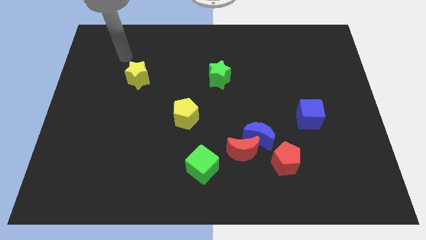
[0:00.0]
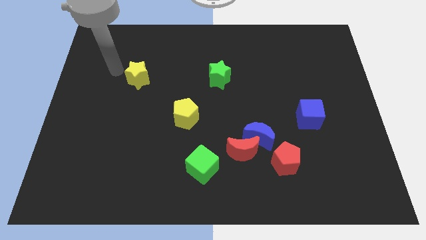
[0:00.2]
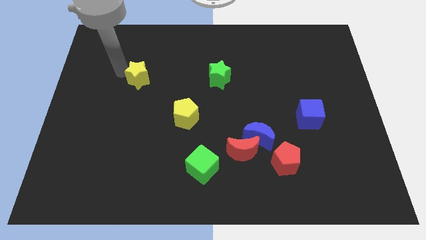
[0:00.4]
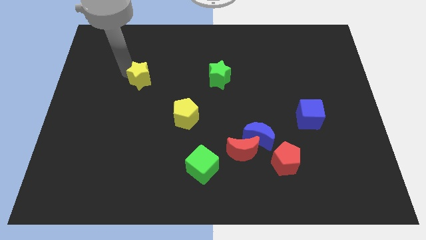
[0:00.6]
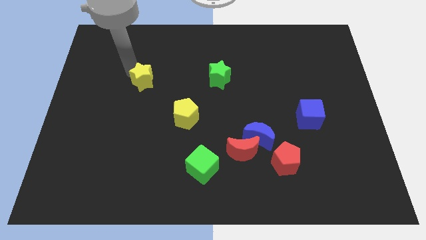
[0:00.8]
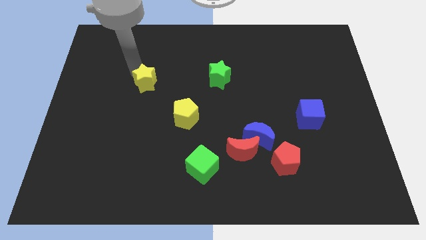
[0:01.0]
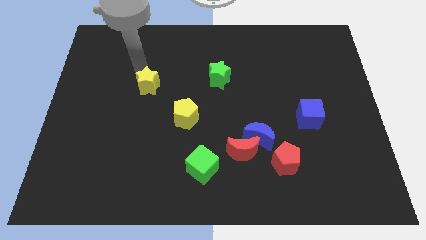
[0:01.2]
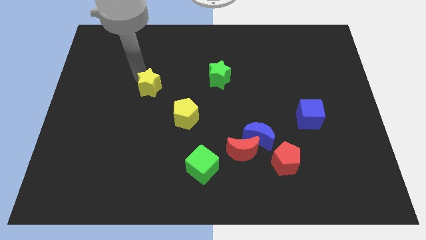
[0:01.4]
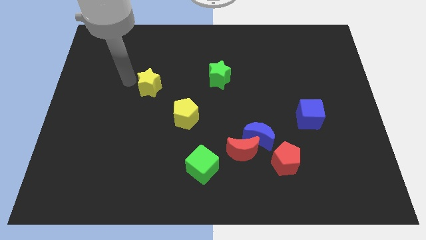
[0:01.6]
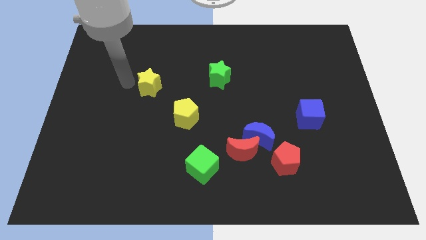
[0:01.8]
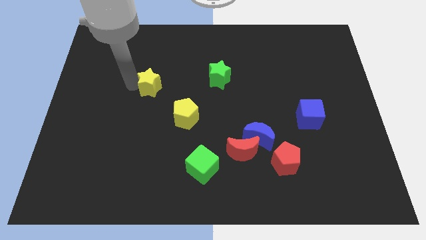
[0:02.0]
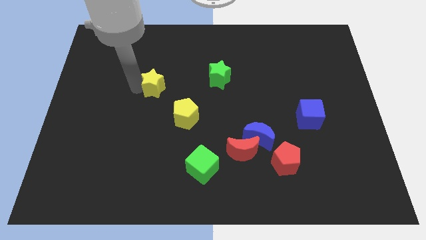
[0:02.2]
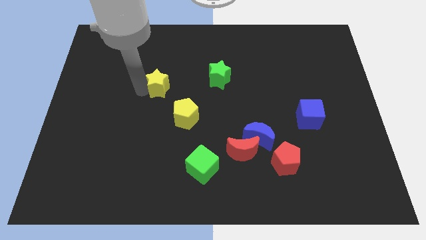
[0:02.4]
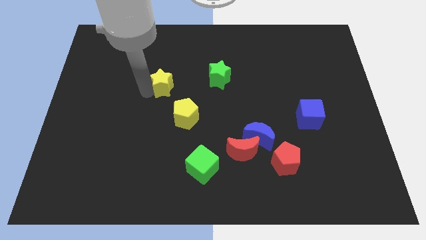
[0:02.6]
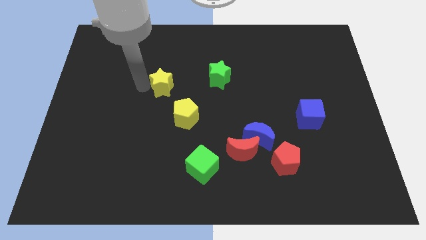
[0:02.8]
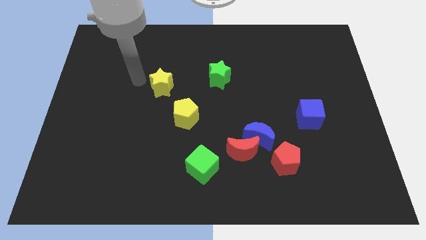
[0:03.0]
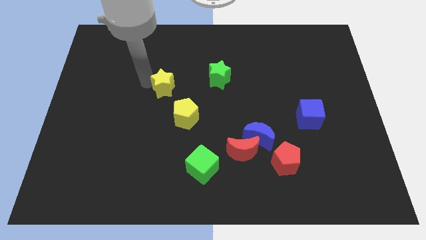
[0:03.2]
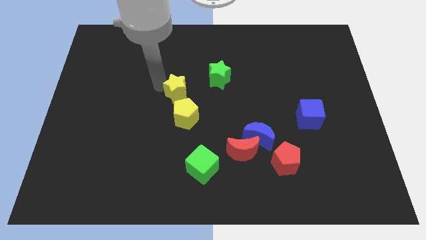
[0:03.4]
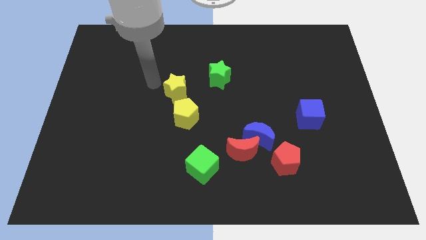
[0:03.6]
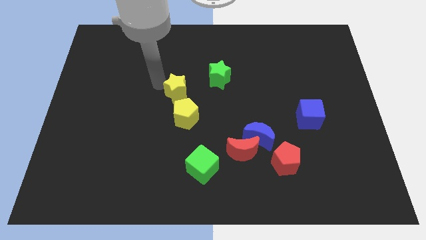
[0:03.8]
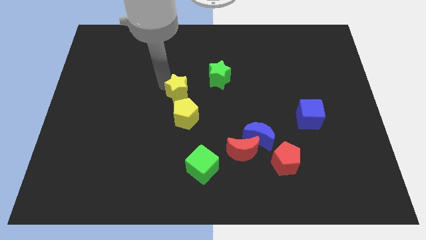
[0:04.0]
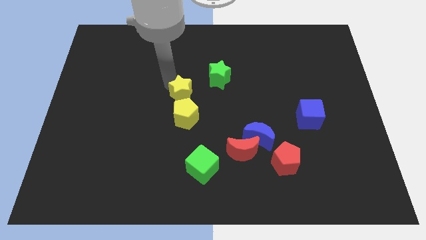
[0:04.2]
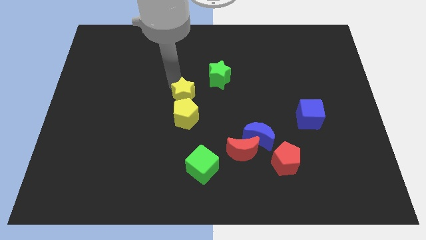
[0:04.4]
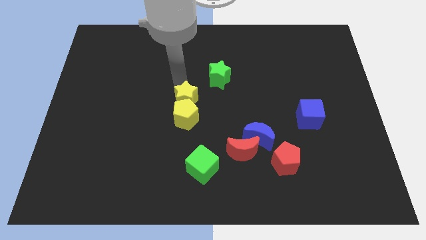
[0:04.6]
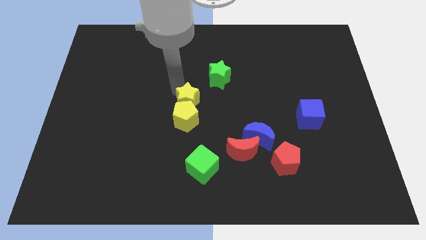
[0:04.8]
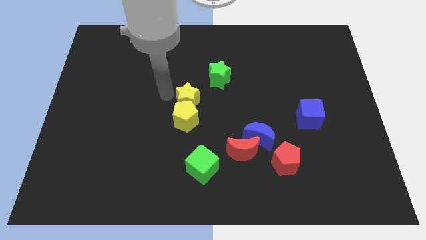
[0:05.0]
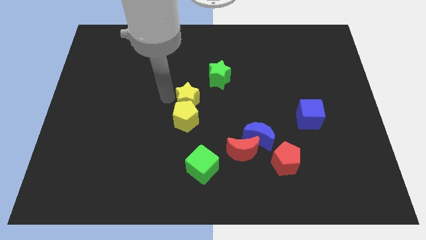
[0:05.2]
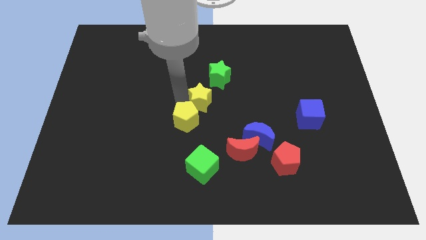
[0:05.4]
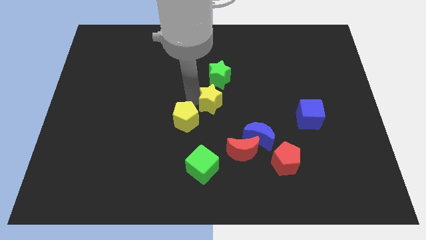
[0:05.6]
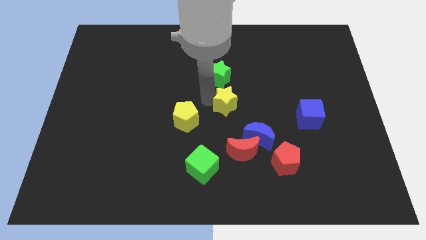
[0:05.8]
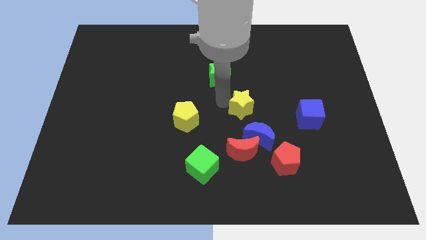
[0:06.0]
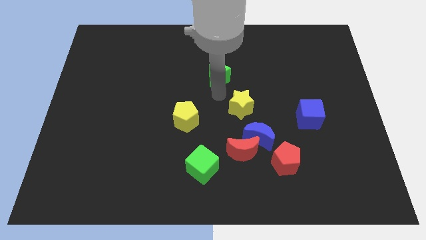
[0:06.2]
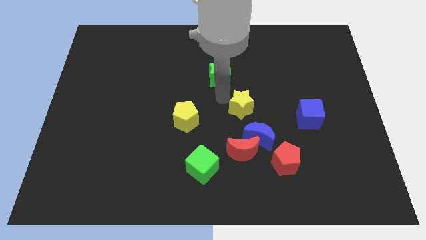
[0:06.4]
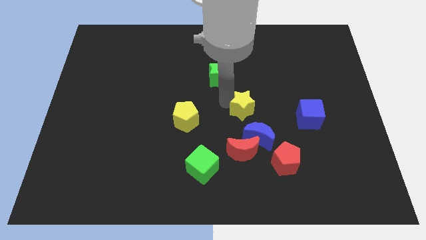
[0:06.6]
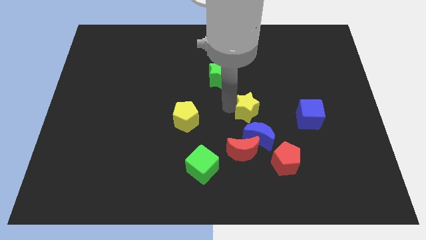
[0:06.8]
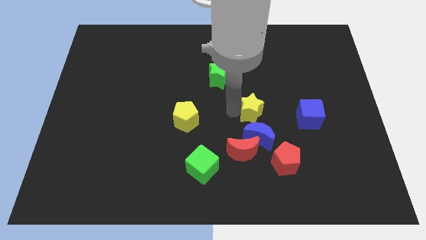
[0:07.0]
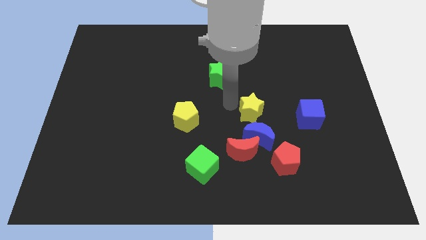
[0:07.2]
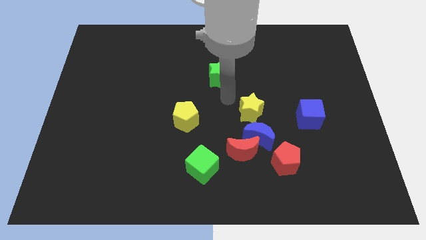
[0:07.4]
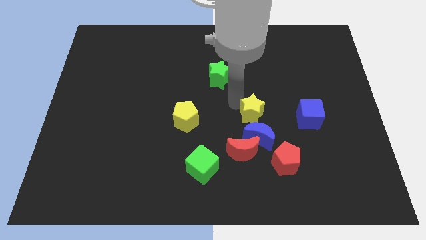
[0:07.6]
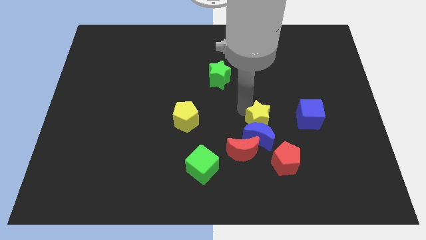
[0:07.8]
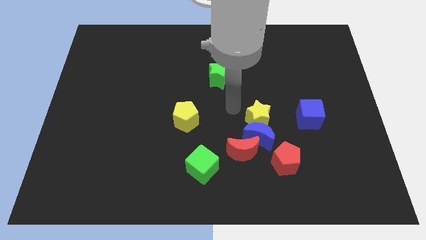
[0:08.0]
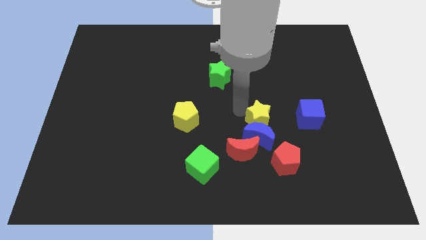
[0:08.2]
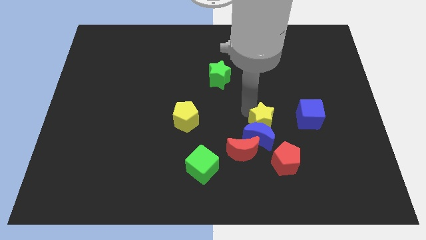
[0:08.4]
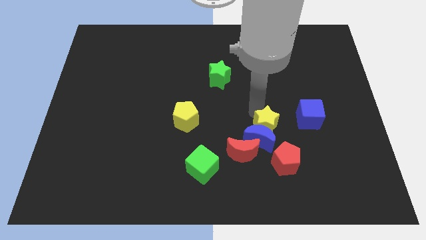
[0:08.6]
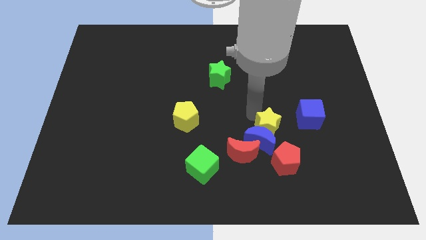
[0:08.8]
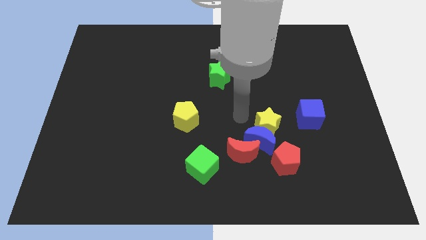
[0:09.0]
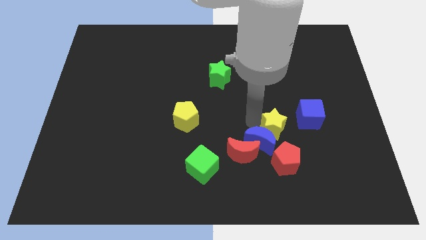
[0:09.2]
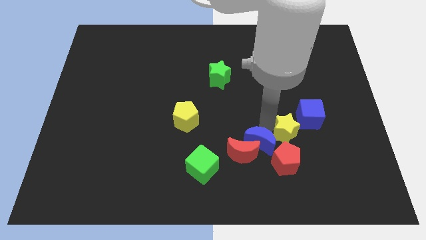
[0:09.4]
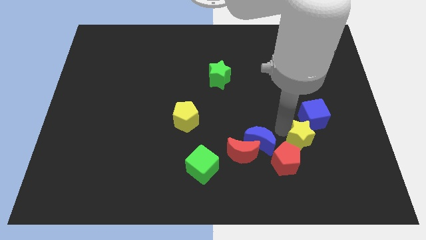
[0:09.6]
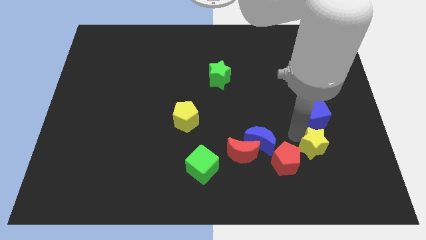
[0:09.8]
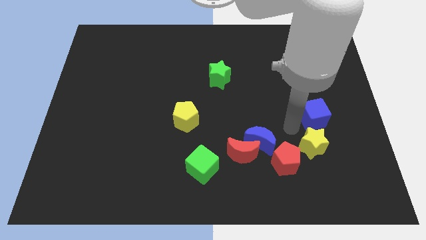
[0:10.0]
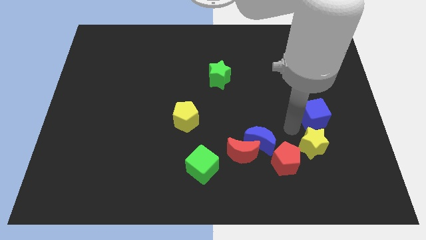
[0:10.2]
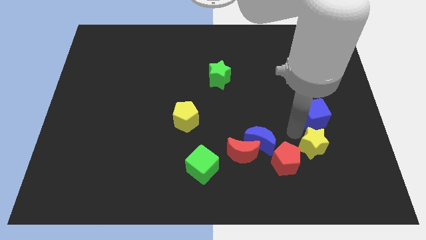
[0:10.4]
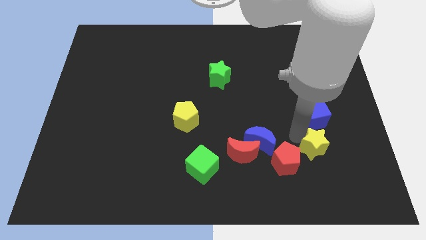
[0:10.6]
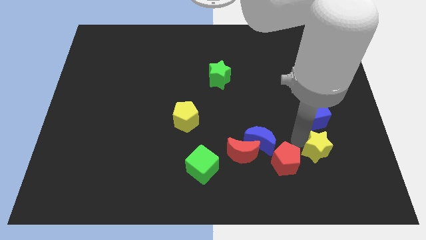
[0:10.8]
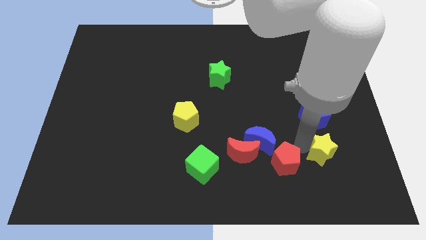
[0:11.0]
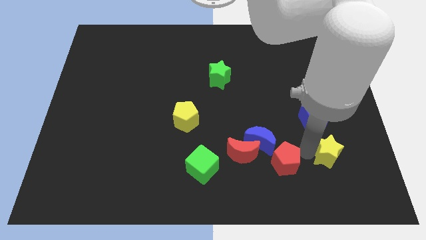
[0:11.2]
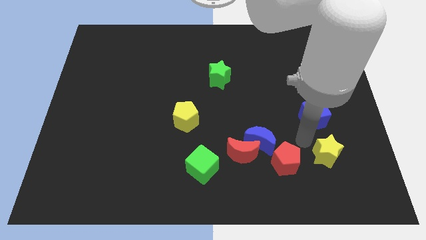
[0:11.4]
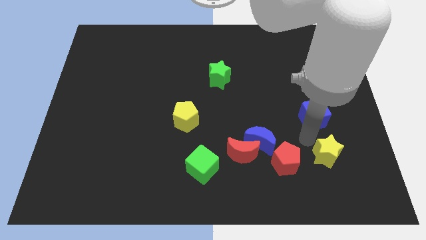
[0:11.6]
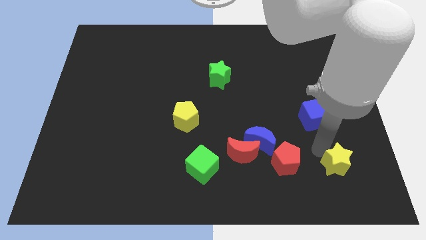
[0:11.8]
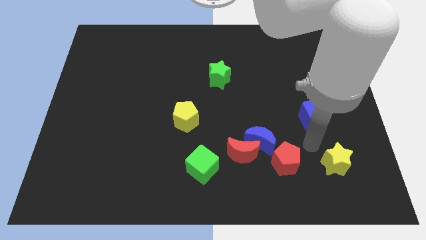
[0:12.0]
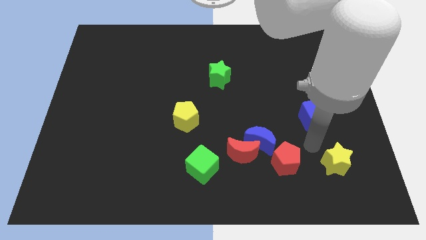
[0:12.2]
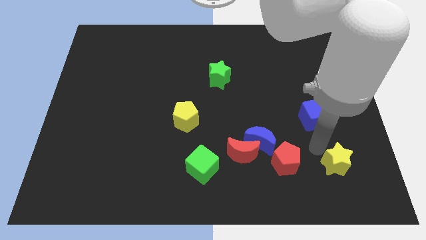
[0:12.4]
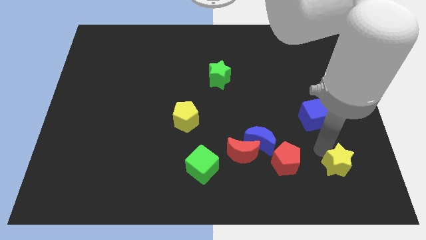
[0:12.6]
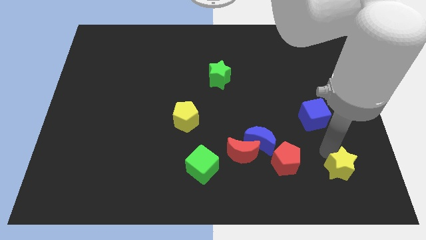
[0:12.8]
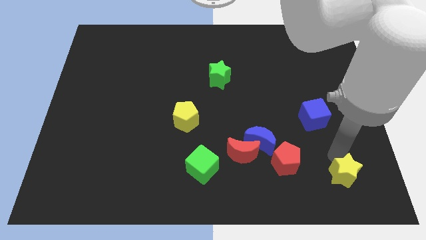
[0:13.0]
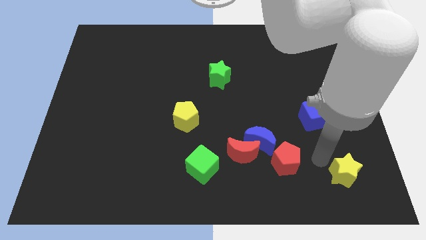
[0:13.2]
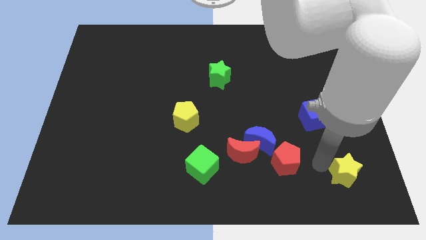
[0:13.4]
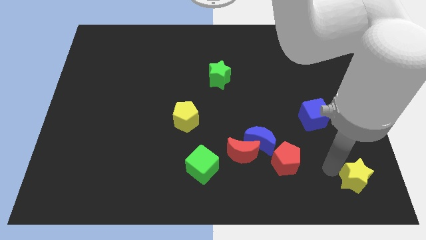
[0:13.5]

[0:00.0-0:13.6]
move the yellow star to the bottom right corner
